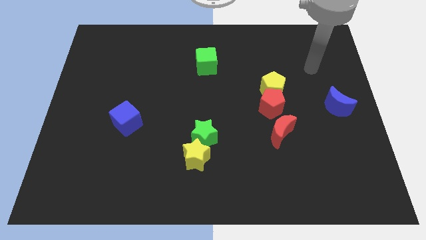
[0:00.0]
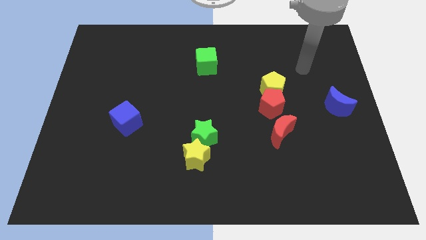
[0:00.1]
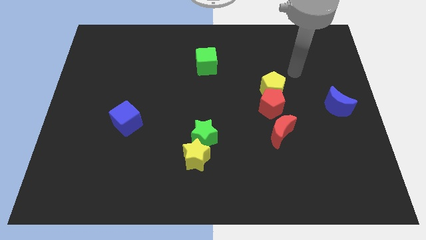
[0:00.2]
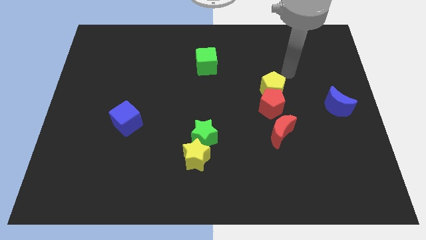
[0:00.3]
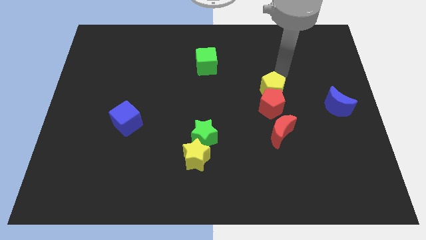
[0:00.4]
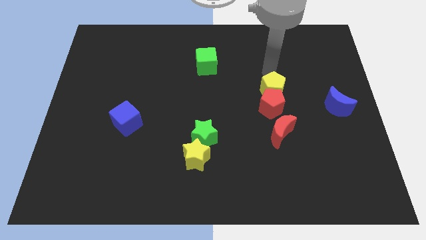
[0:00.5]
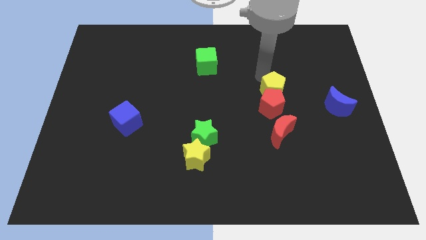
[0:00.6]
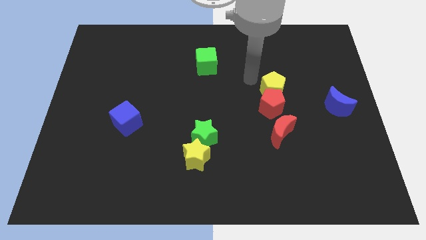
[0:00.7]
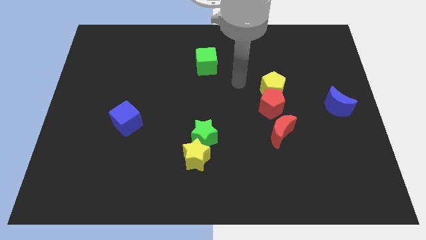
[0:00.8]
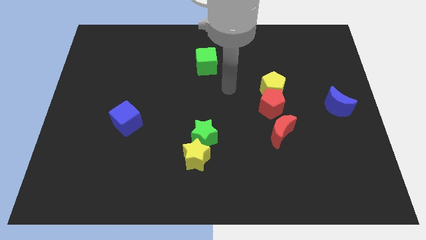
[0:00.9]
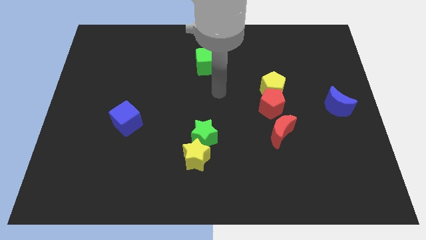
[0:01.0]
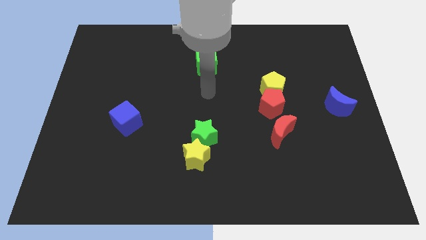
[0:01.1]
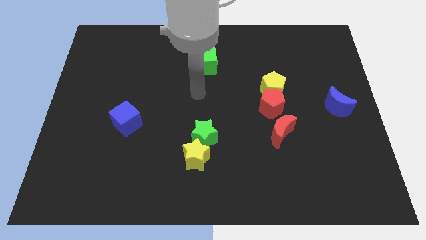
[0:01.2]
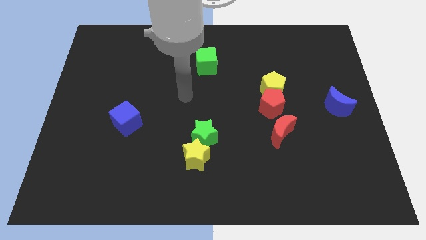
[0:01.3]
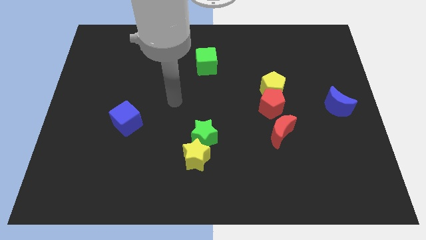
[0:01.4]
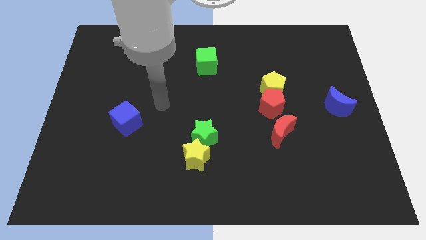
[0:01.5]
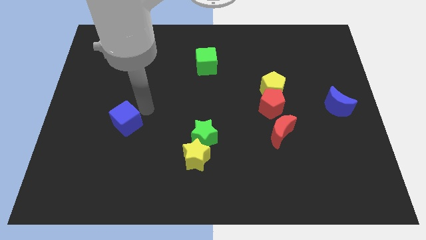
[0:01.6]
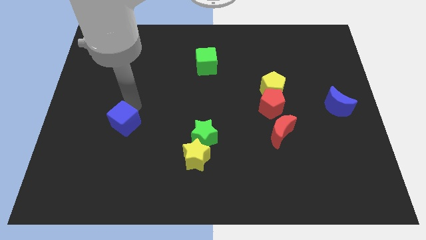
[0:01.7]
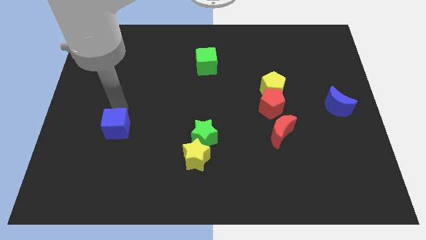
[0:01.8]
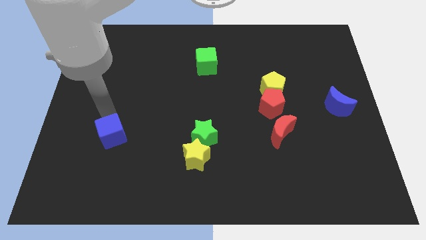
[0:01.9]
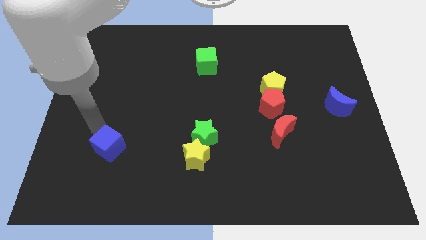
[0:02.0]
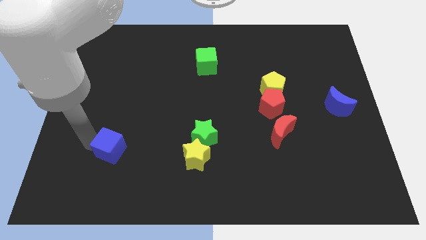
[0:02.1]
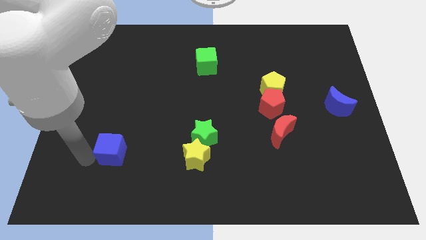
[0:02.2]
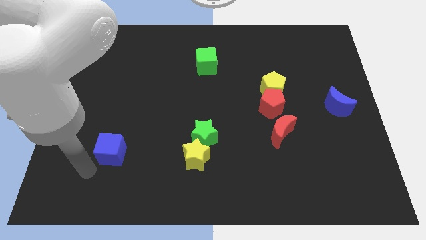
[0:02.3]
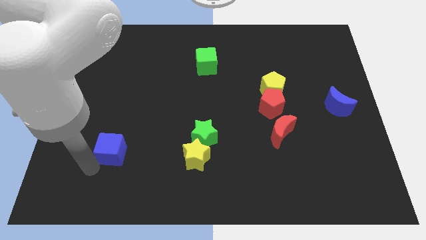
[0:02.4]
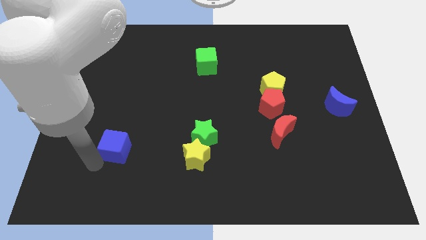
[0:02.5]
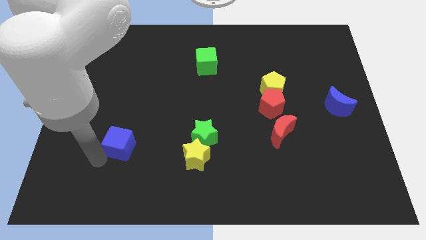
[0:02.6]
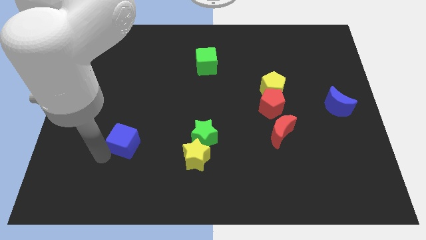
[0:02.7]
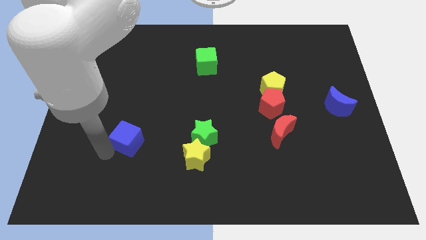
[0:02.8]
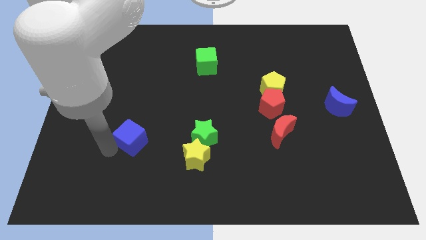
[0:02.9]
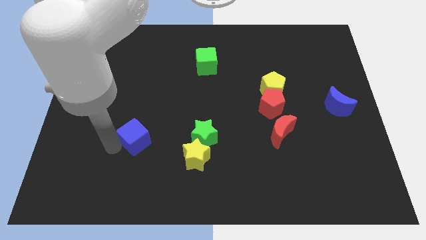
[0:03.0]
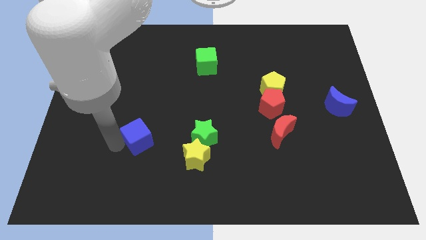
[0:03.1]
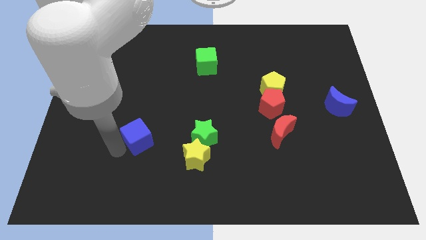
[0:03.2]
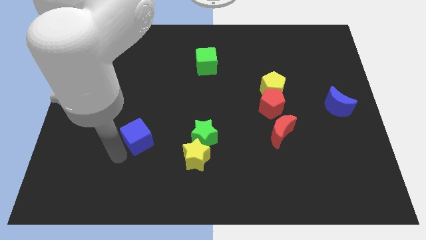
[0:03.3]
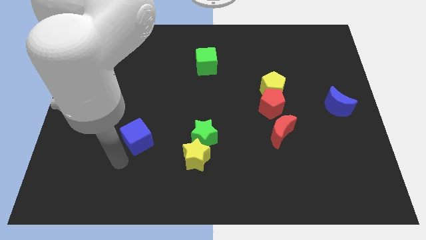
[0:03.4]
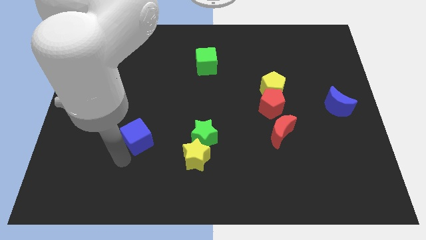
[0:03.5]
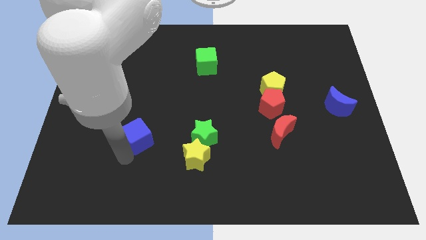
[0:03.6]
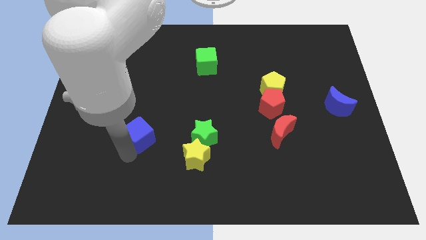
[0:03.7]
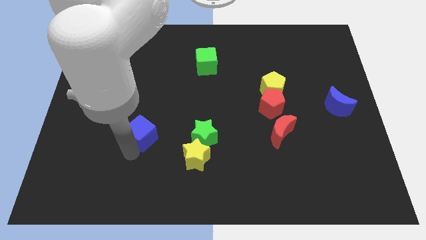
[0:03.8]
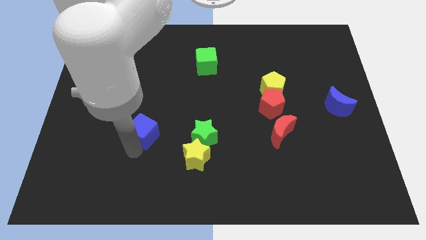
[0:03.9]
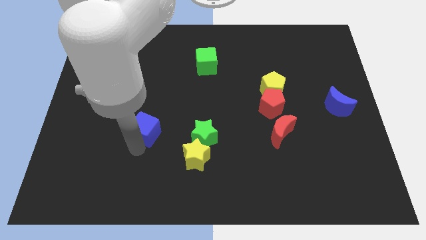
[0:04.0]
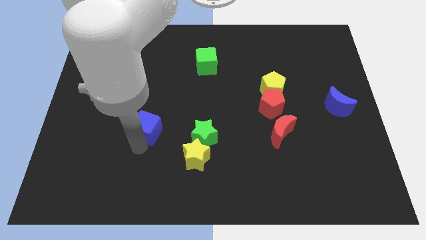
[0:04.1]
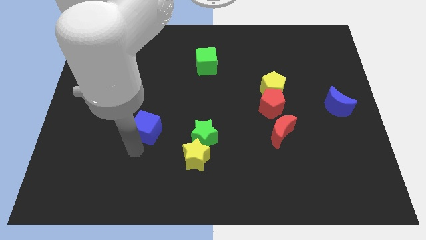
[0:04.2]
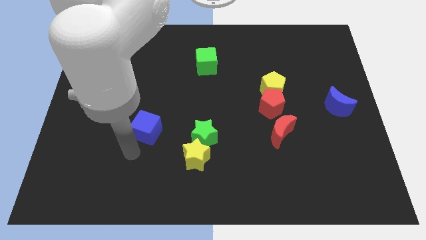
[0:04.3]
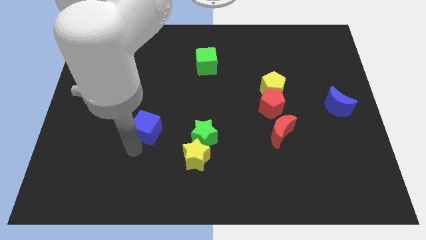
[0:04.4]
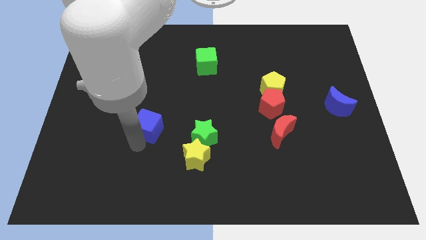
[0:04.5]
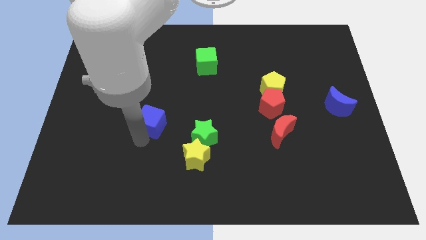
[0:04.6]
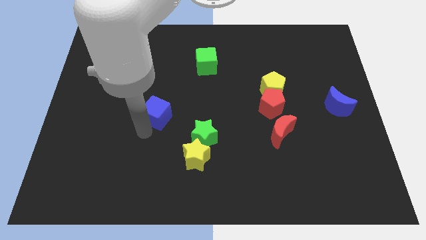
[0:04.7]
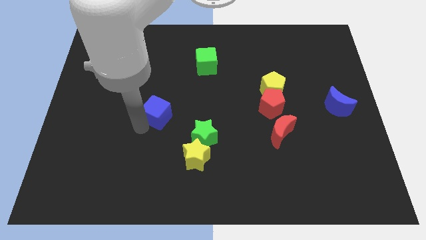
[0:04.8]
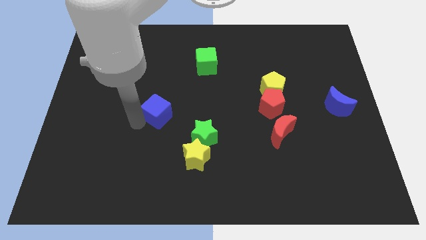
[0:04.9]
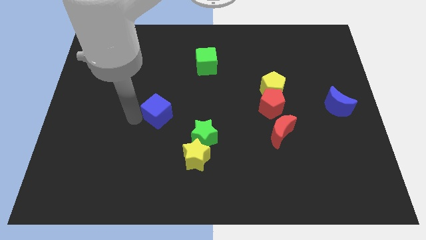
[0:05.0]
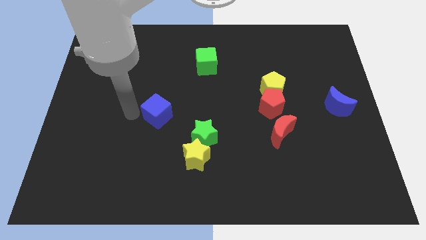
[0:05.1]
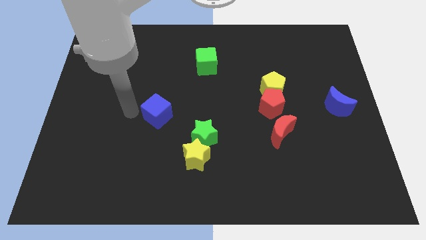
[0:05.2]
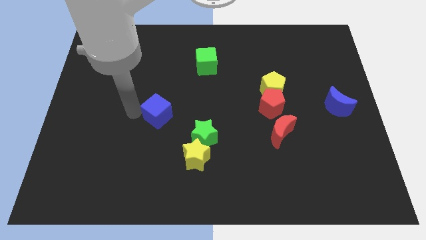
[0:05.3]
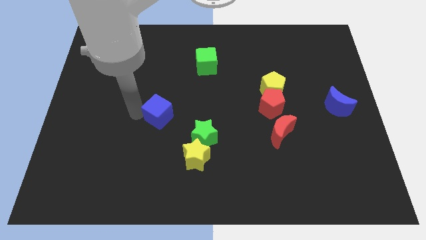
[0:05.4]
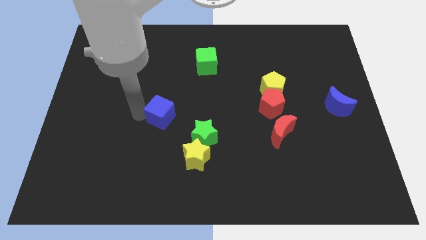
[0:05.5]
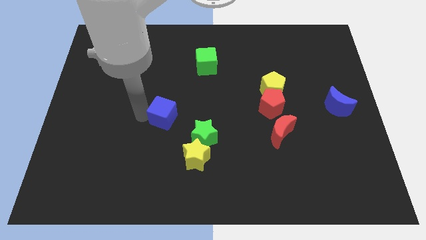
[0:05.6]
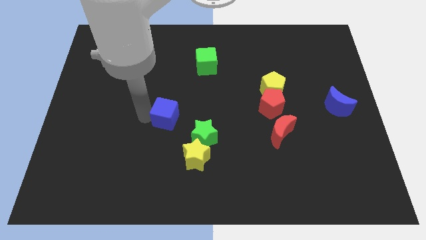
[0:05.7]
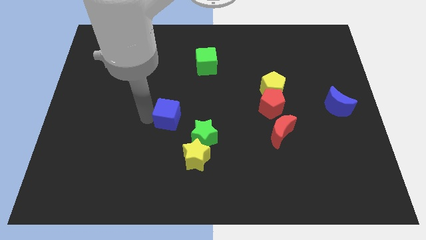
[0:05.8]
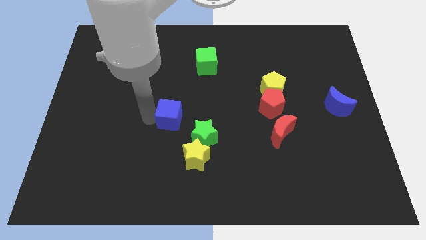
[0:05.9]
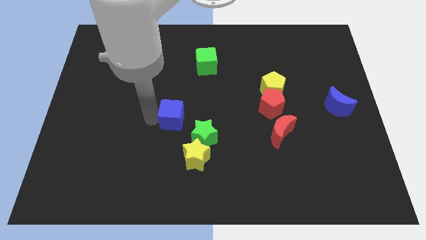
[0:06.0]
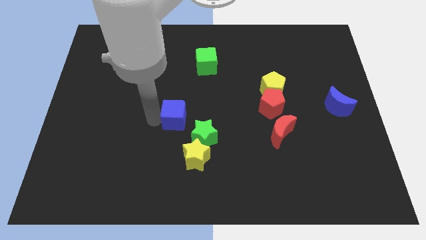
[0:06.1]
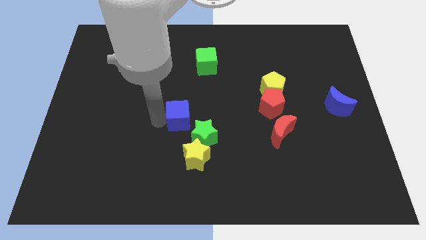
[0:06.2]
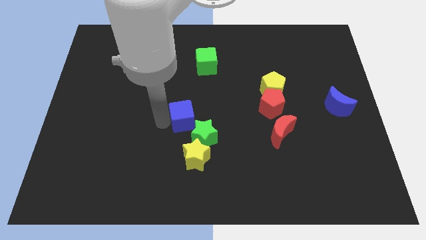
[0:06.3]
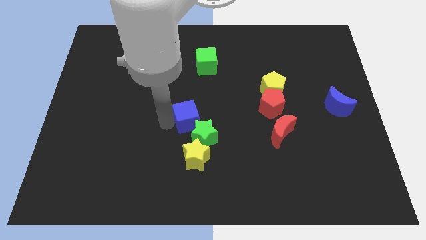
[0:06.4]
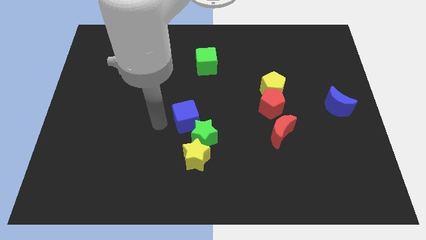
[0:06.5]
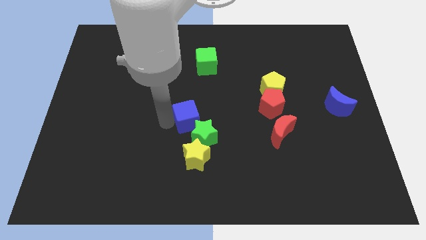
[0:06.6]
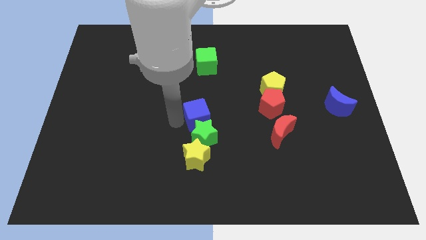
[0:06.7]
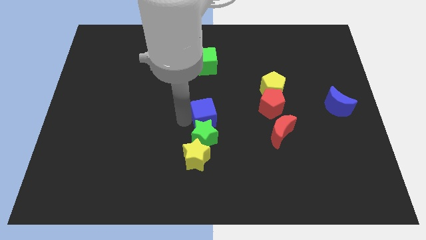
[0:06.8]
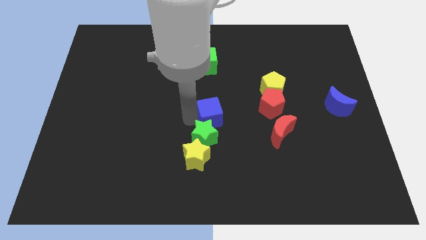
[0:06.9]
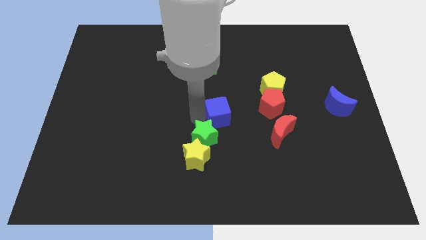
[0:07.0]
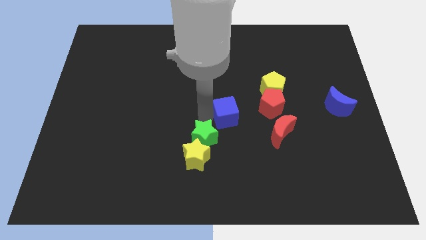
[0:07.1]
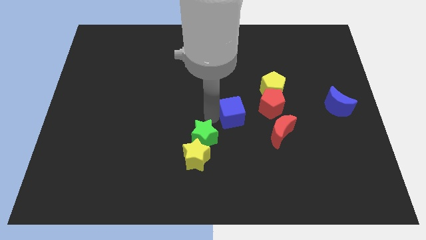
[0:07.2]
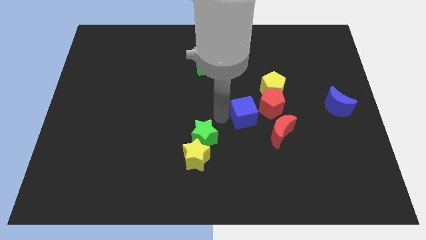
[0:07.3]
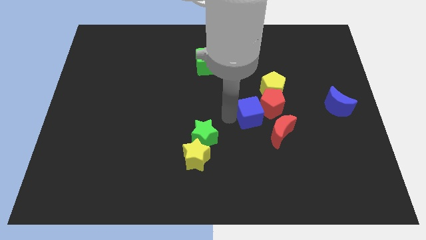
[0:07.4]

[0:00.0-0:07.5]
put the blue cube to the red pentagon
